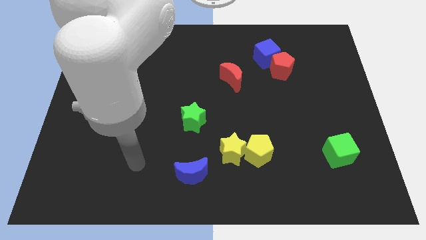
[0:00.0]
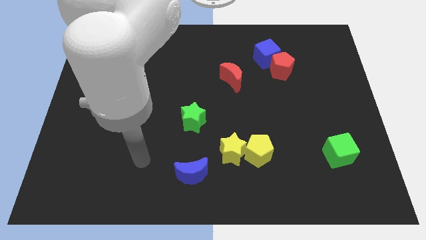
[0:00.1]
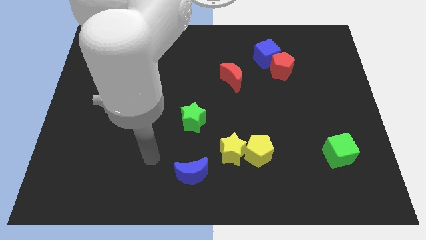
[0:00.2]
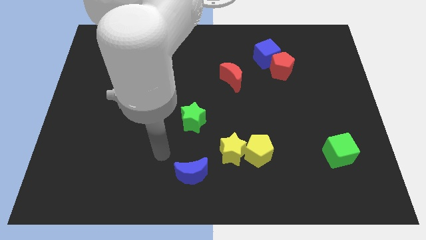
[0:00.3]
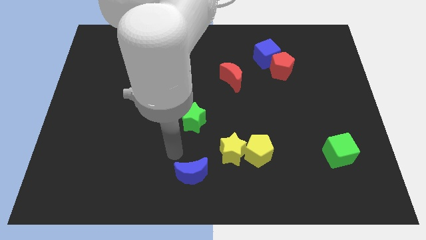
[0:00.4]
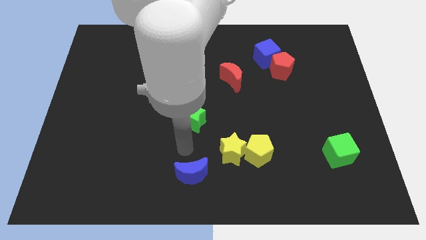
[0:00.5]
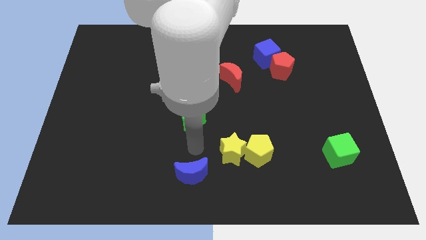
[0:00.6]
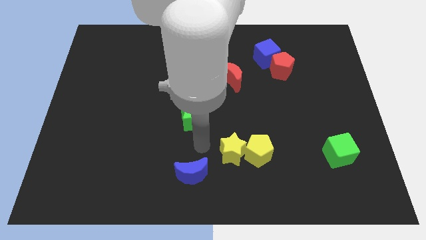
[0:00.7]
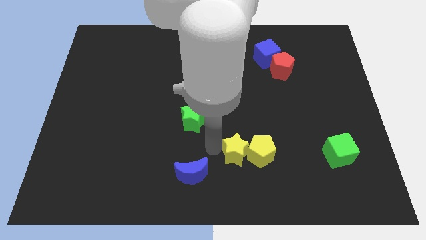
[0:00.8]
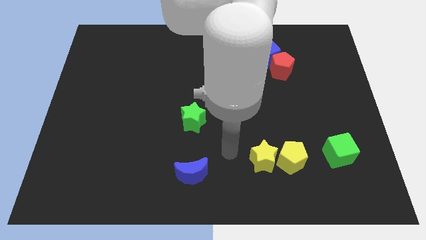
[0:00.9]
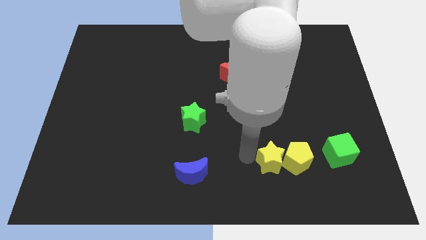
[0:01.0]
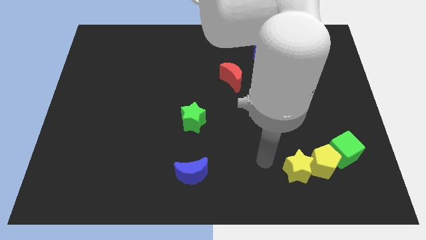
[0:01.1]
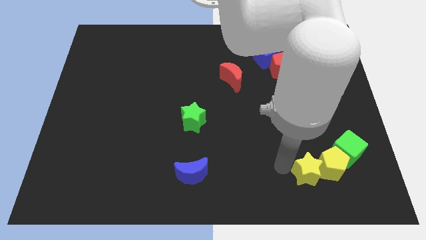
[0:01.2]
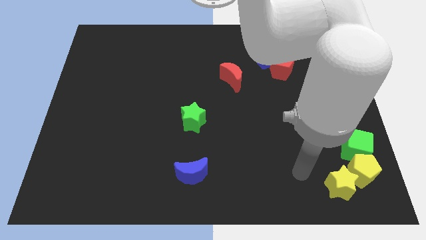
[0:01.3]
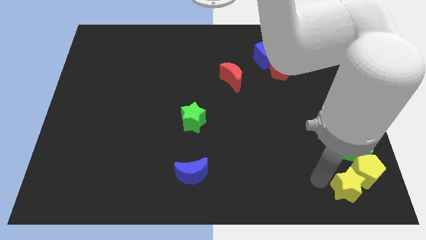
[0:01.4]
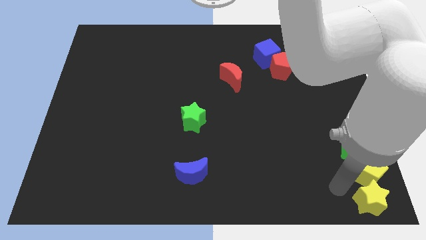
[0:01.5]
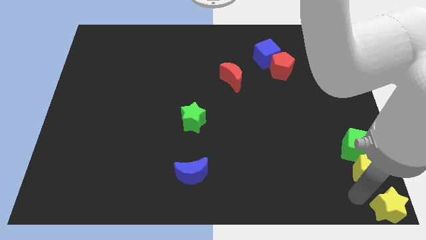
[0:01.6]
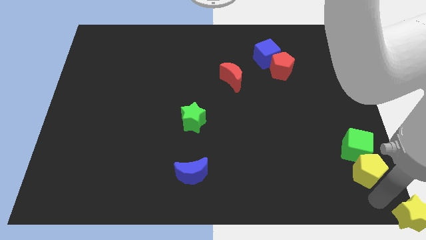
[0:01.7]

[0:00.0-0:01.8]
move the yellow pentagon away from the yellow star

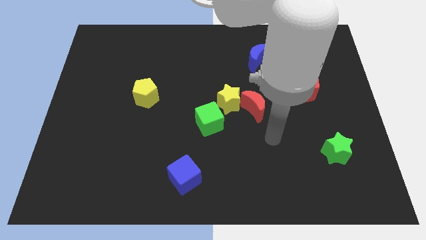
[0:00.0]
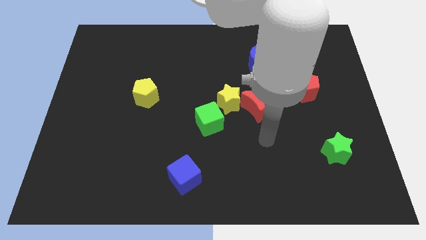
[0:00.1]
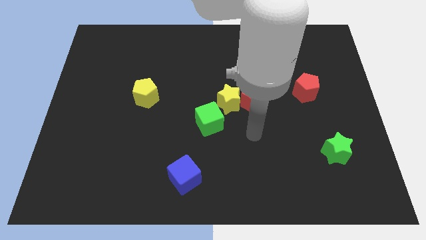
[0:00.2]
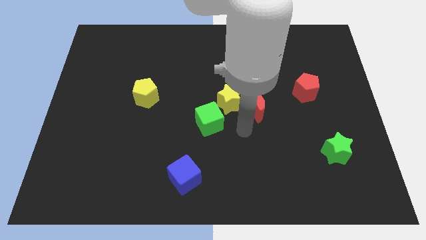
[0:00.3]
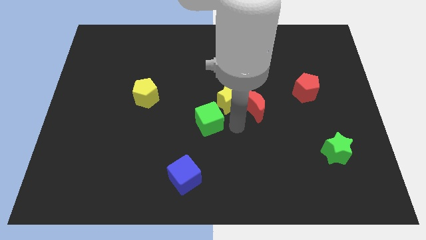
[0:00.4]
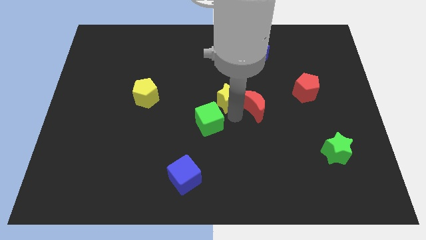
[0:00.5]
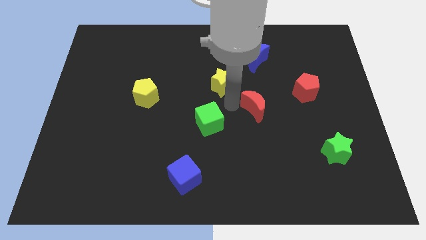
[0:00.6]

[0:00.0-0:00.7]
move the red moon away from the yellow star

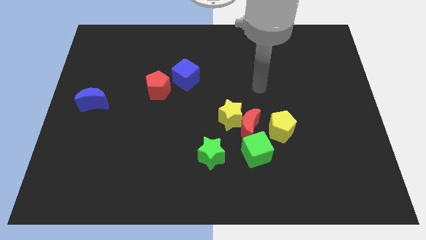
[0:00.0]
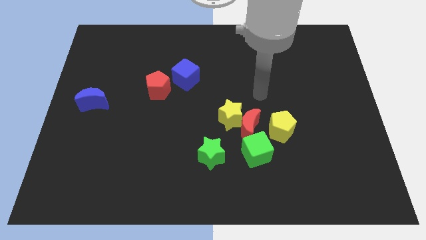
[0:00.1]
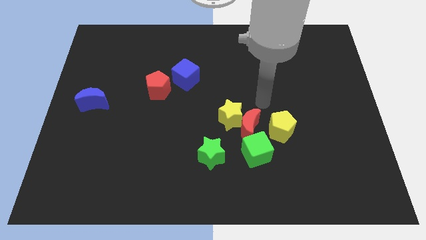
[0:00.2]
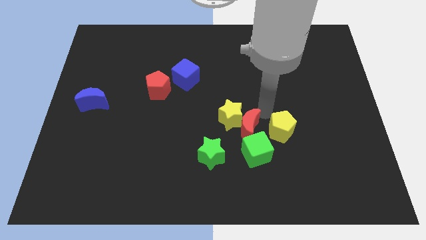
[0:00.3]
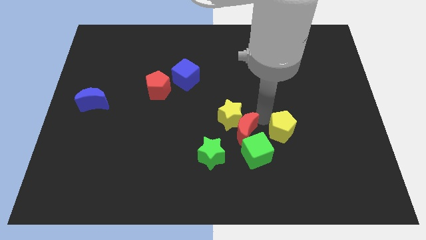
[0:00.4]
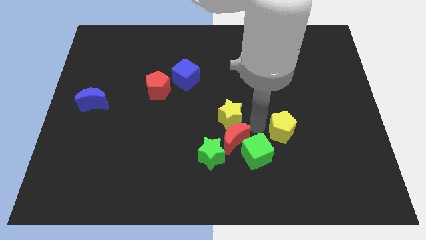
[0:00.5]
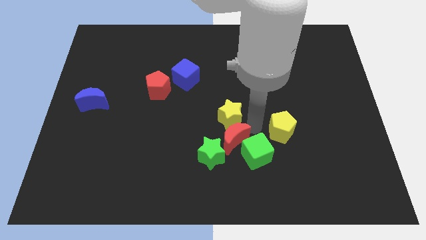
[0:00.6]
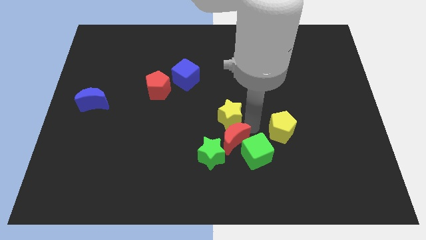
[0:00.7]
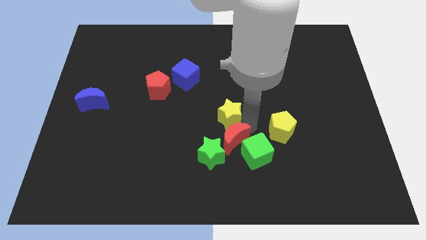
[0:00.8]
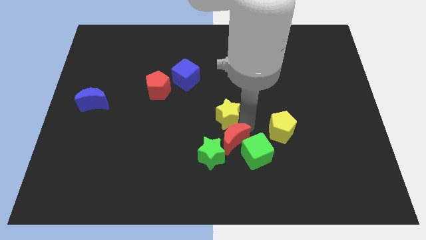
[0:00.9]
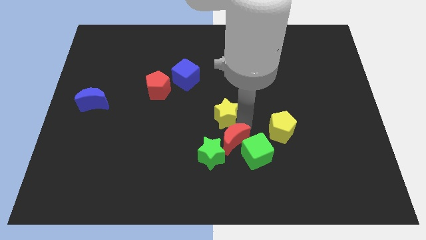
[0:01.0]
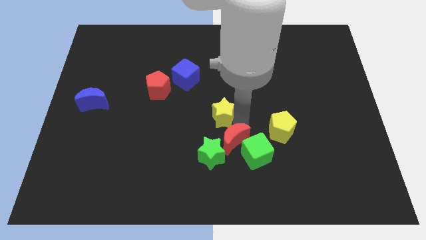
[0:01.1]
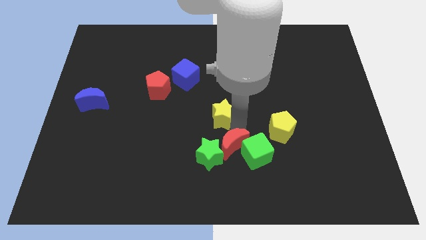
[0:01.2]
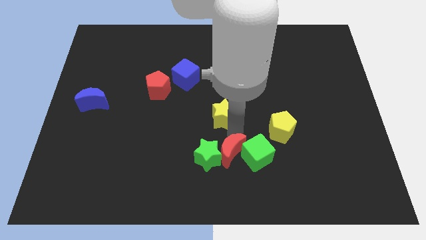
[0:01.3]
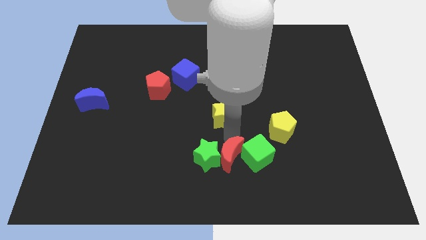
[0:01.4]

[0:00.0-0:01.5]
move the yellow star away from the red moon

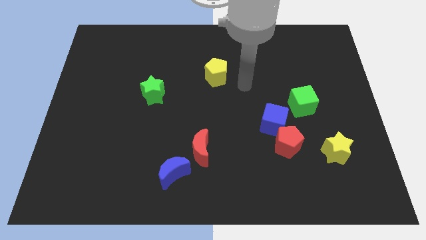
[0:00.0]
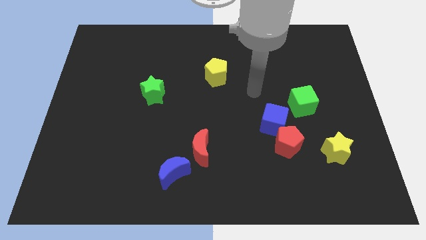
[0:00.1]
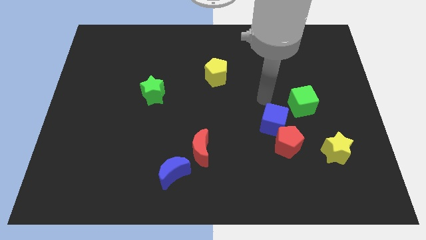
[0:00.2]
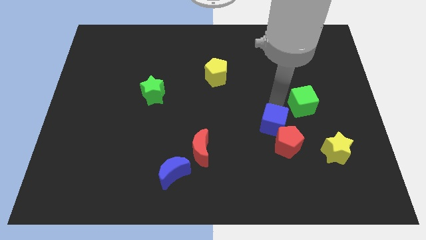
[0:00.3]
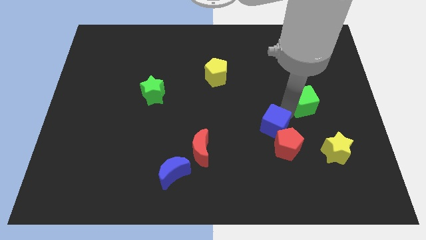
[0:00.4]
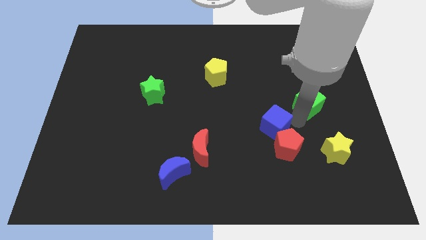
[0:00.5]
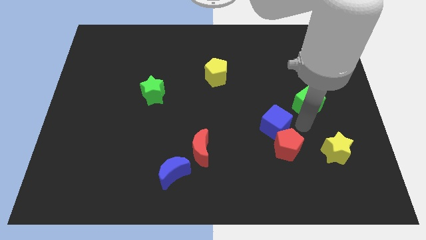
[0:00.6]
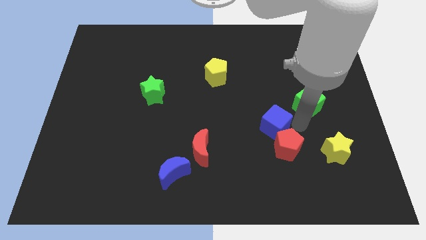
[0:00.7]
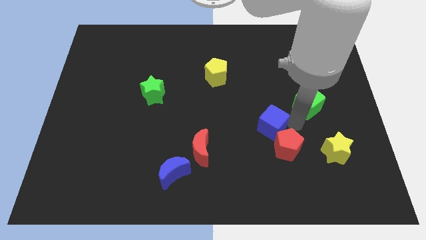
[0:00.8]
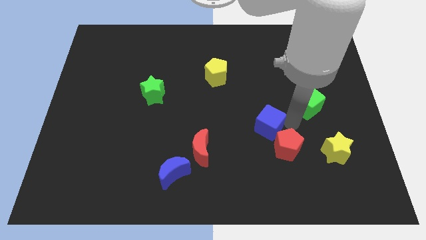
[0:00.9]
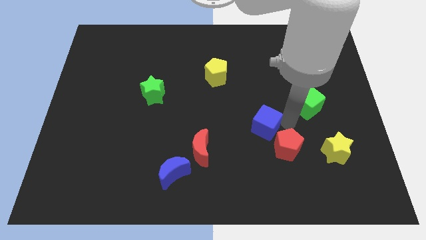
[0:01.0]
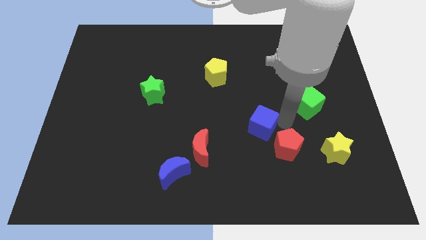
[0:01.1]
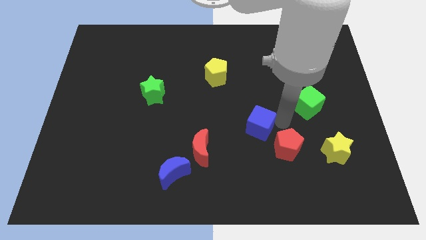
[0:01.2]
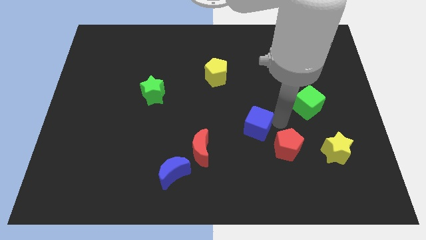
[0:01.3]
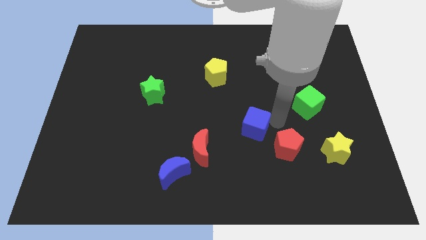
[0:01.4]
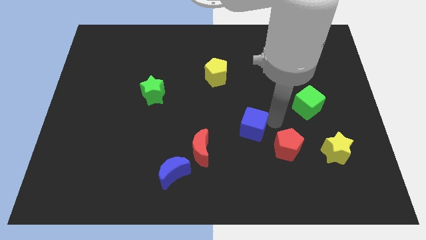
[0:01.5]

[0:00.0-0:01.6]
separate the blue cube from the red pentagon and green cube

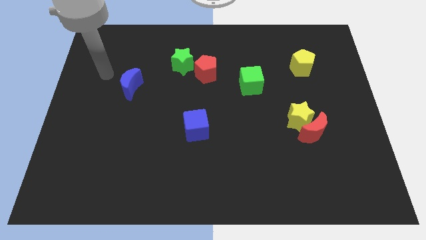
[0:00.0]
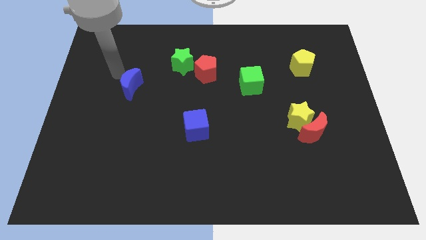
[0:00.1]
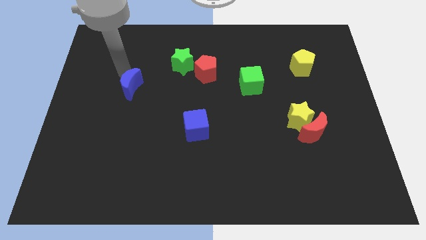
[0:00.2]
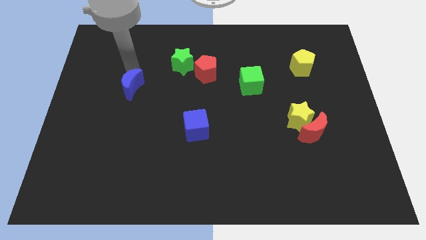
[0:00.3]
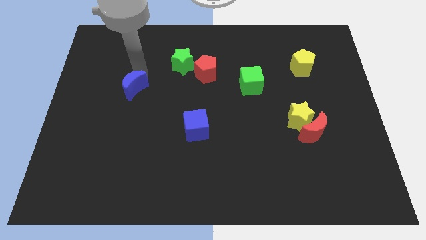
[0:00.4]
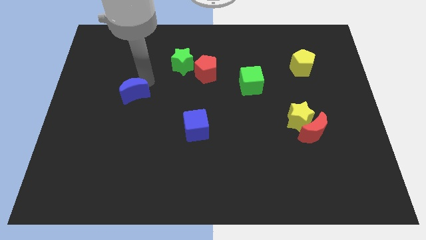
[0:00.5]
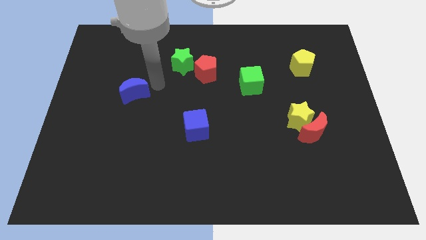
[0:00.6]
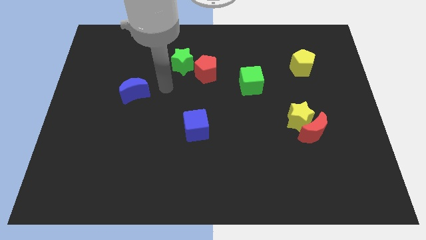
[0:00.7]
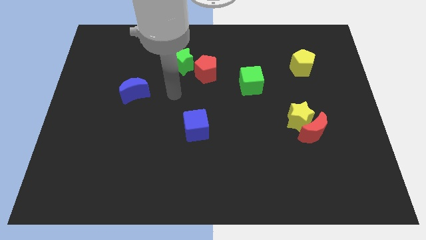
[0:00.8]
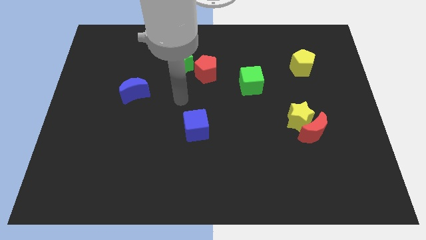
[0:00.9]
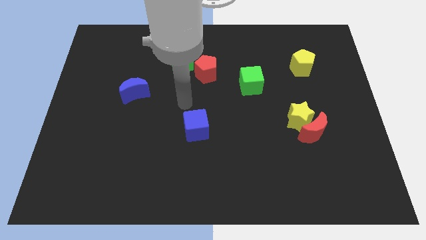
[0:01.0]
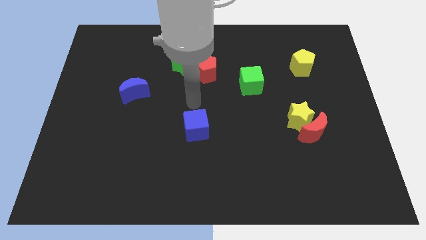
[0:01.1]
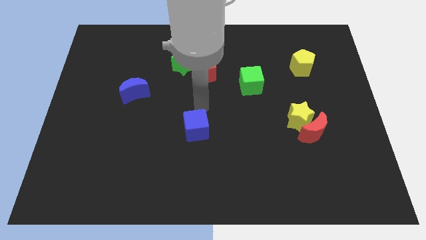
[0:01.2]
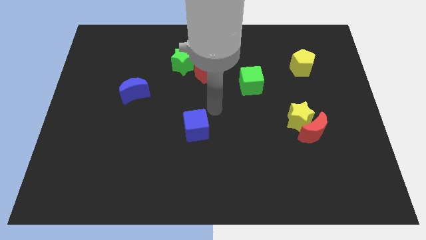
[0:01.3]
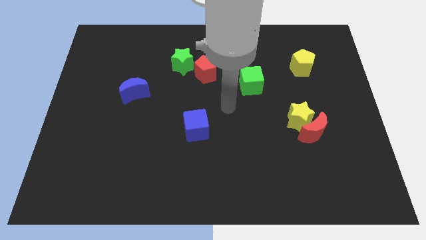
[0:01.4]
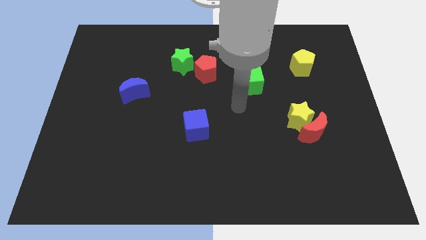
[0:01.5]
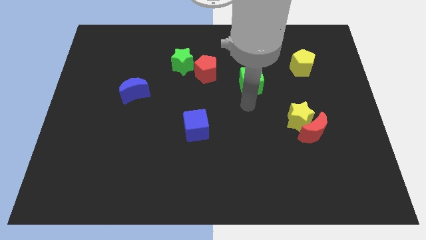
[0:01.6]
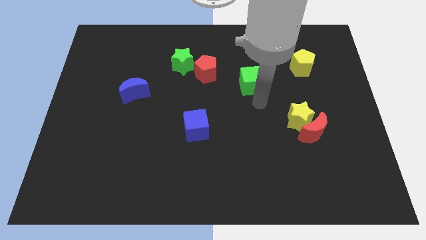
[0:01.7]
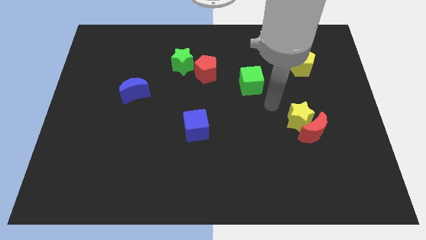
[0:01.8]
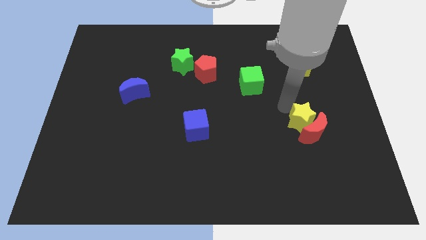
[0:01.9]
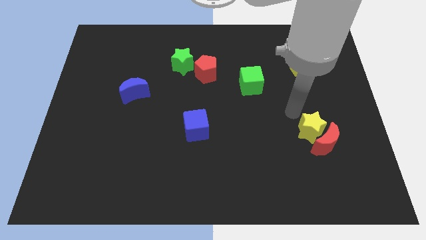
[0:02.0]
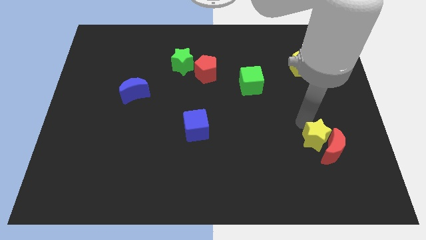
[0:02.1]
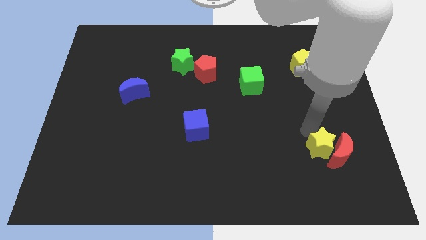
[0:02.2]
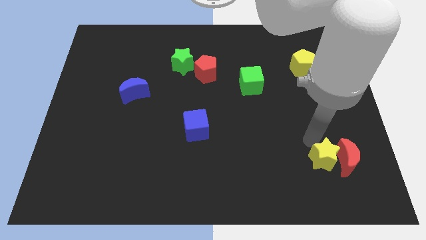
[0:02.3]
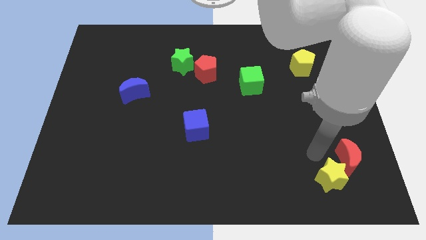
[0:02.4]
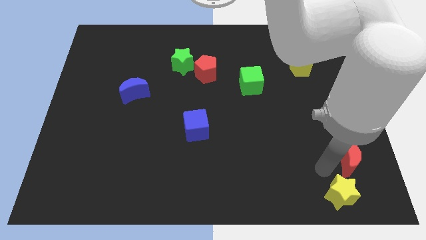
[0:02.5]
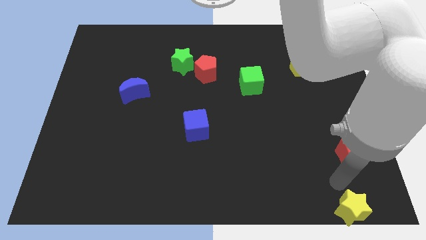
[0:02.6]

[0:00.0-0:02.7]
pull the red moon apart from the yellow star

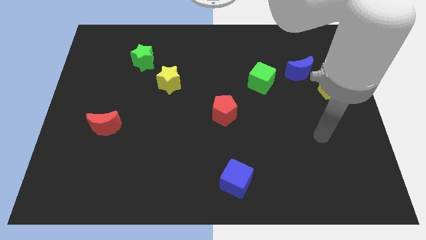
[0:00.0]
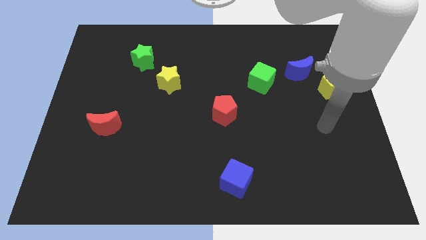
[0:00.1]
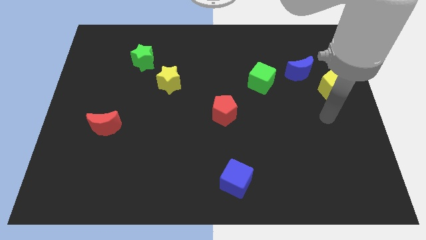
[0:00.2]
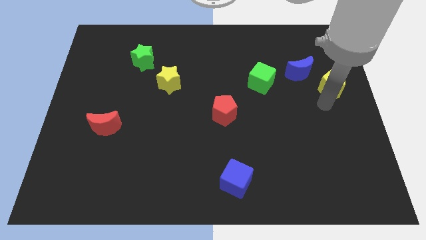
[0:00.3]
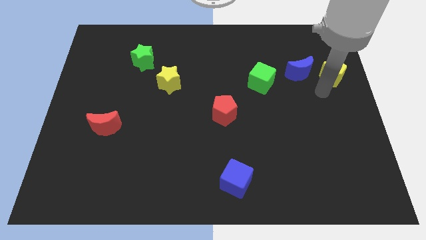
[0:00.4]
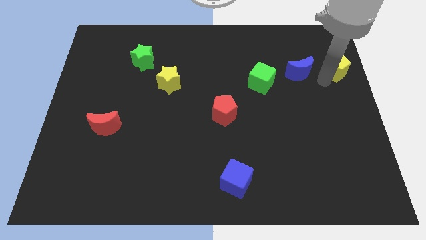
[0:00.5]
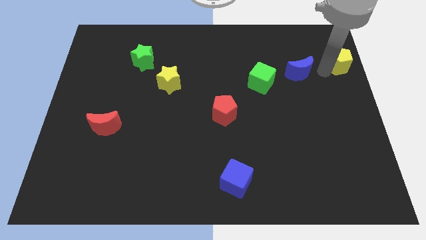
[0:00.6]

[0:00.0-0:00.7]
pull the blue moon apart from the yellow pentagon
